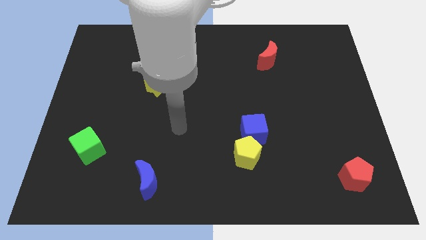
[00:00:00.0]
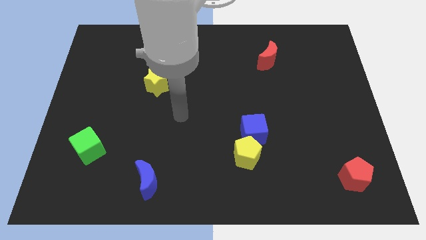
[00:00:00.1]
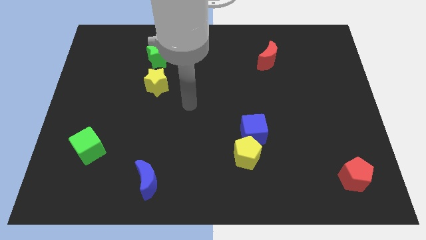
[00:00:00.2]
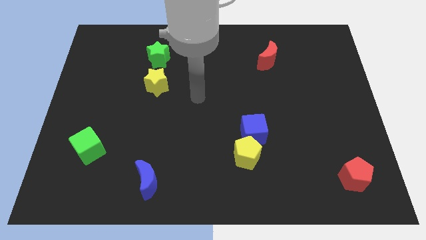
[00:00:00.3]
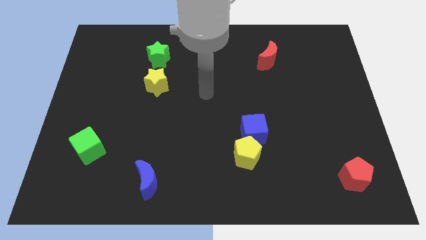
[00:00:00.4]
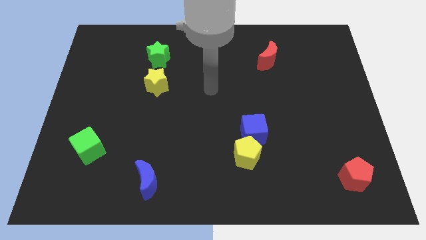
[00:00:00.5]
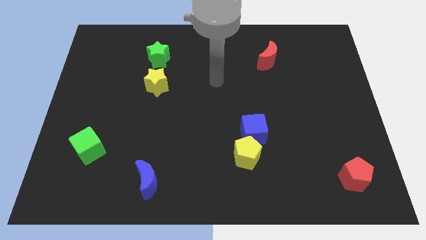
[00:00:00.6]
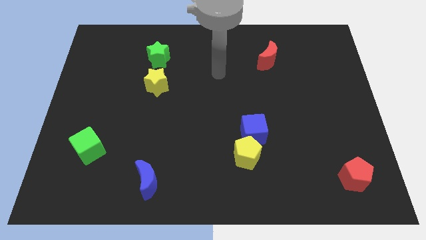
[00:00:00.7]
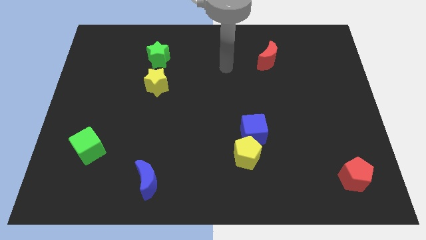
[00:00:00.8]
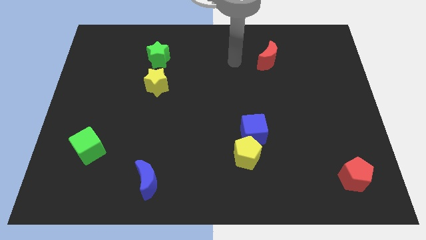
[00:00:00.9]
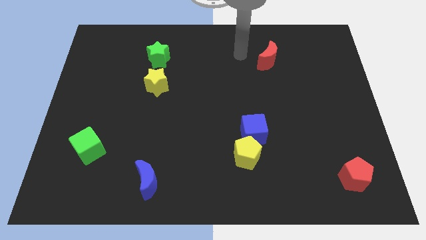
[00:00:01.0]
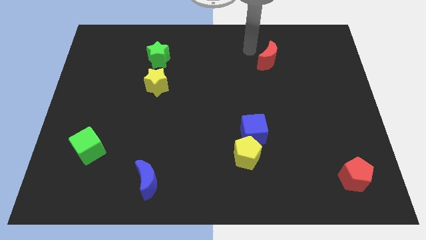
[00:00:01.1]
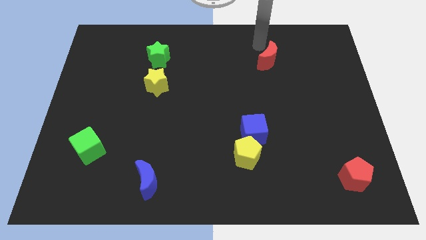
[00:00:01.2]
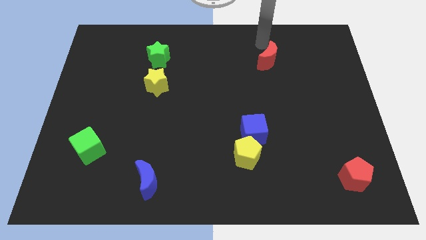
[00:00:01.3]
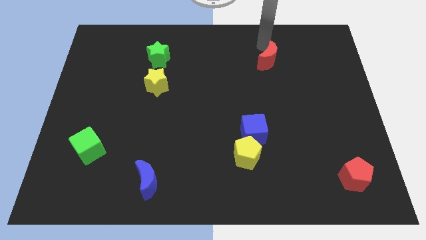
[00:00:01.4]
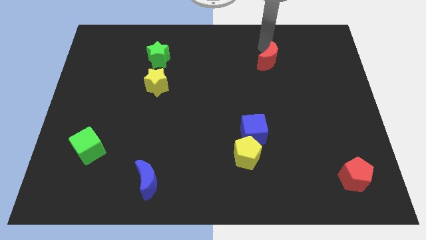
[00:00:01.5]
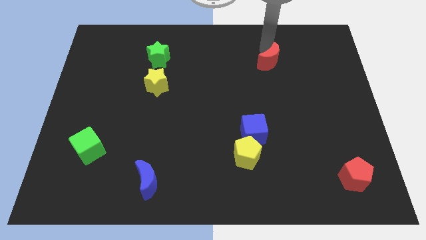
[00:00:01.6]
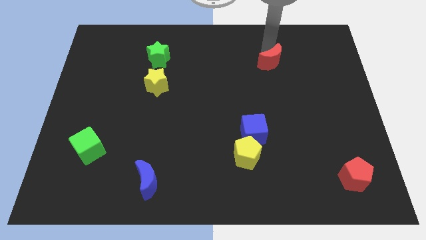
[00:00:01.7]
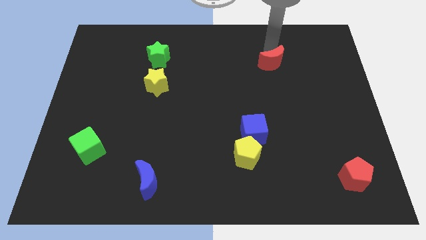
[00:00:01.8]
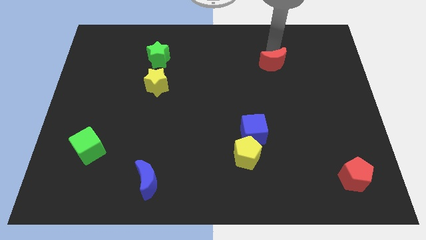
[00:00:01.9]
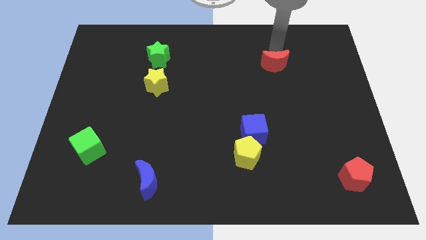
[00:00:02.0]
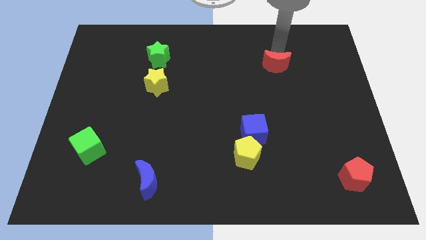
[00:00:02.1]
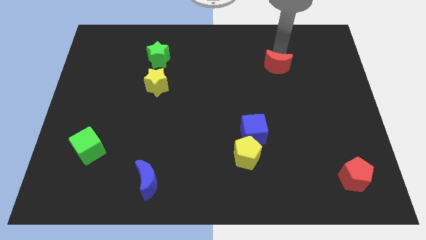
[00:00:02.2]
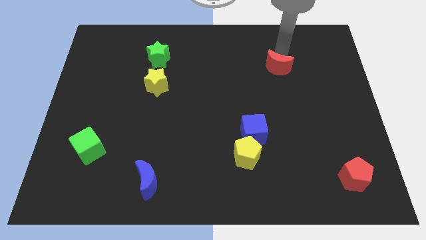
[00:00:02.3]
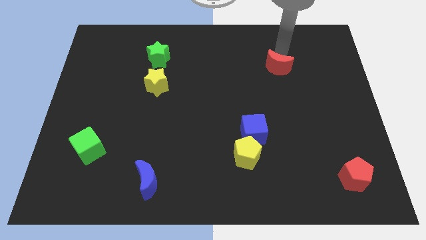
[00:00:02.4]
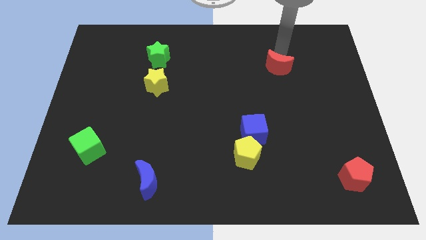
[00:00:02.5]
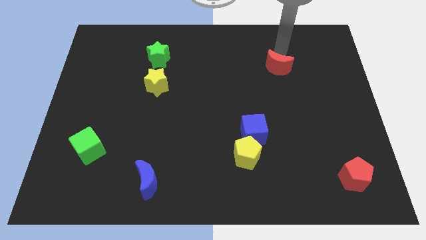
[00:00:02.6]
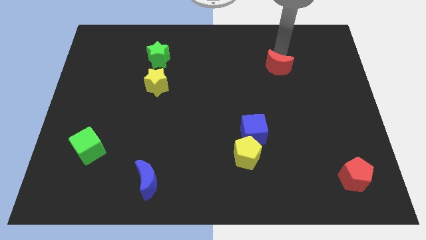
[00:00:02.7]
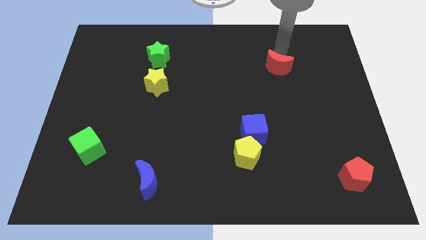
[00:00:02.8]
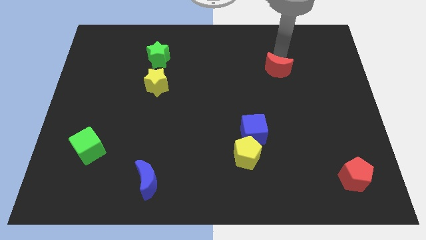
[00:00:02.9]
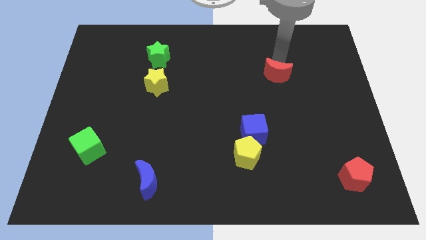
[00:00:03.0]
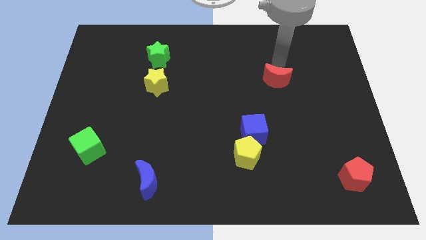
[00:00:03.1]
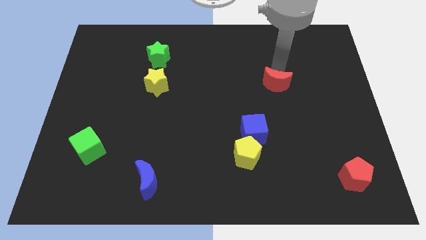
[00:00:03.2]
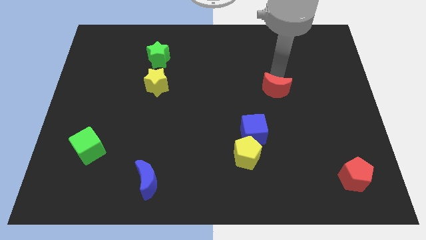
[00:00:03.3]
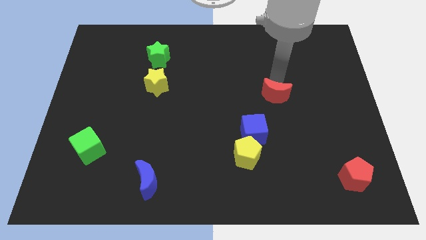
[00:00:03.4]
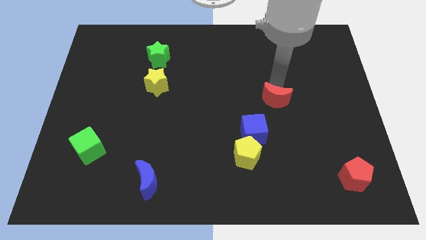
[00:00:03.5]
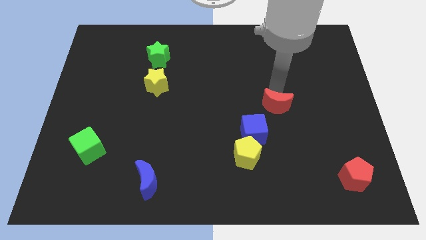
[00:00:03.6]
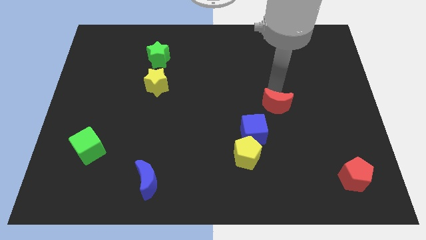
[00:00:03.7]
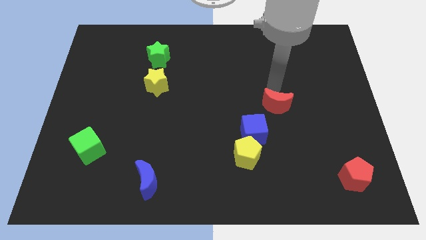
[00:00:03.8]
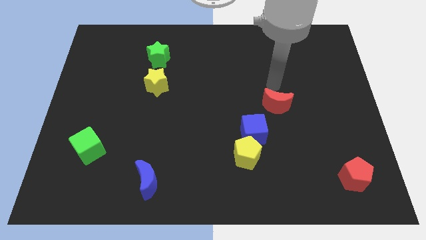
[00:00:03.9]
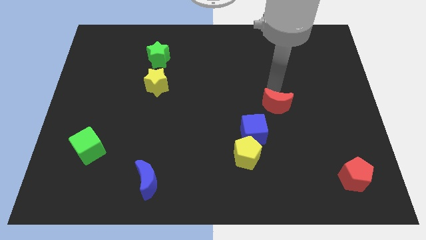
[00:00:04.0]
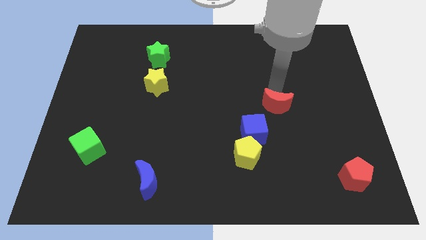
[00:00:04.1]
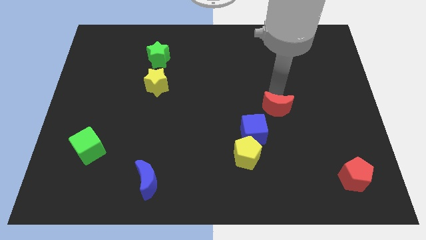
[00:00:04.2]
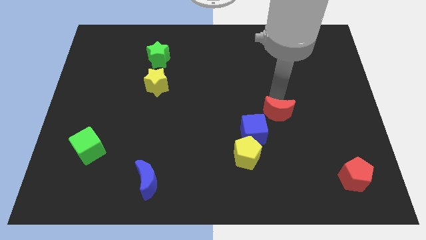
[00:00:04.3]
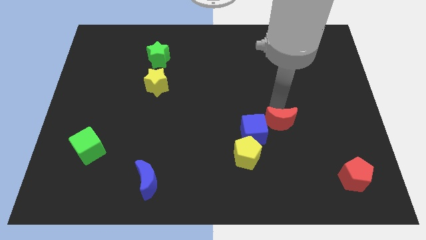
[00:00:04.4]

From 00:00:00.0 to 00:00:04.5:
move the red moon down

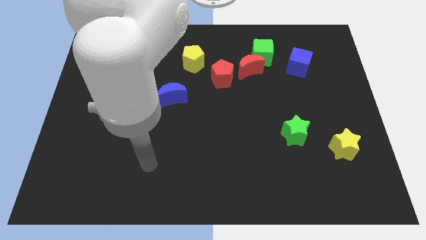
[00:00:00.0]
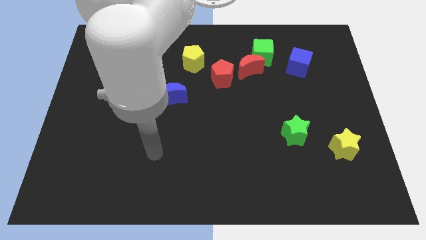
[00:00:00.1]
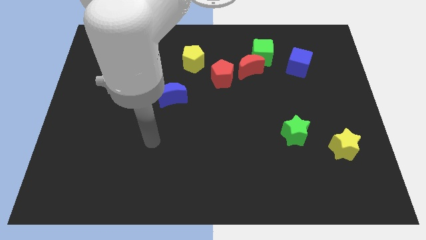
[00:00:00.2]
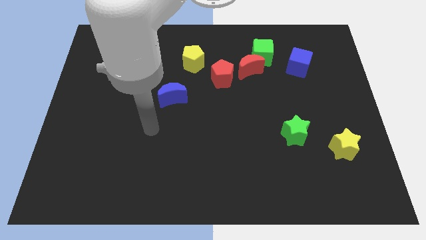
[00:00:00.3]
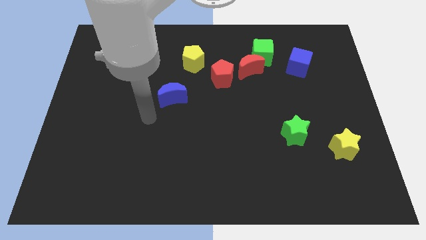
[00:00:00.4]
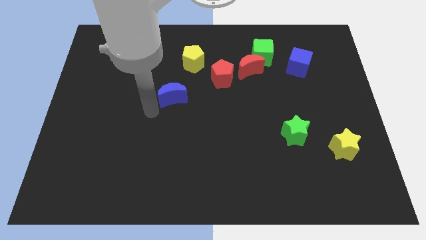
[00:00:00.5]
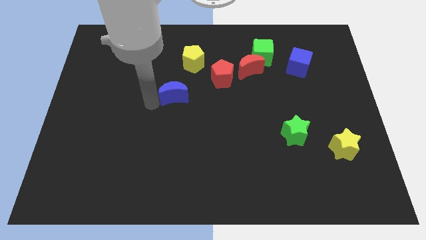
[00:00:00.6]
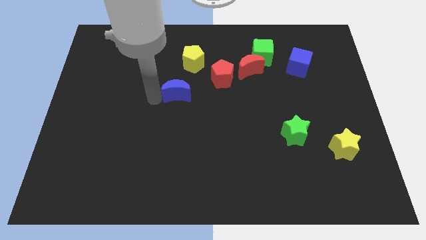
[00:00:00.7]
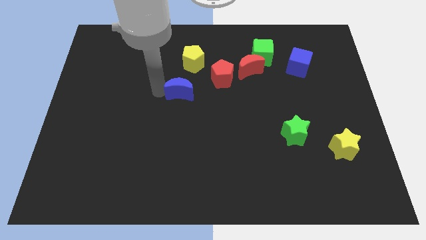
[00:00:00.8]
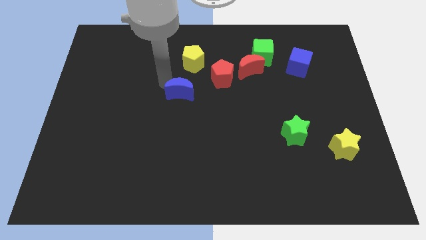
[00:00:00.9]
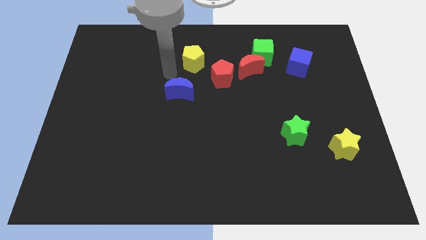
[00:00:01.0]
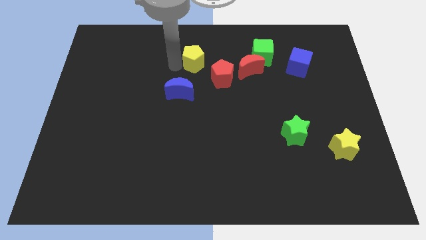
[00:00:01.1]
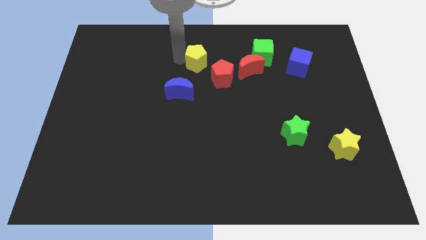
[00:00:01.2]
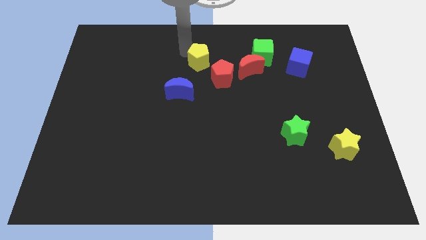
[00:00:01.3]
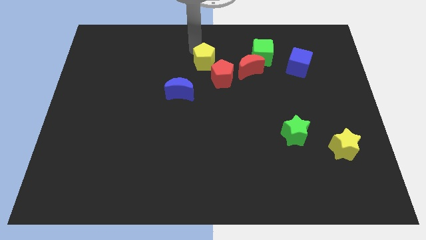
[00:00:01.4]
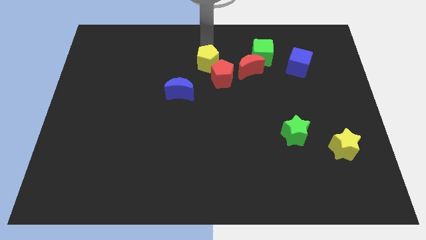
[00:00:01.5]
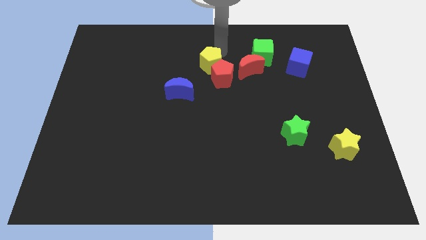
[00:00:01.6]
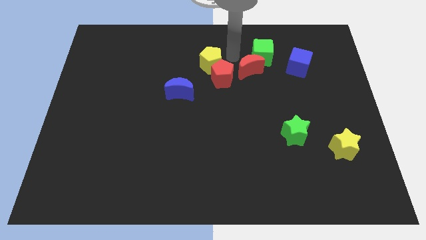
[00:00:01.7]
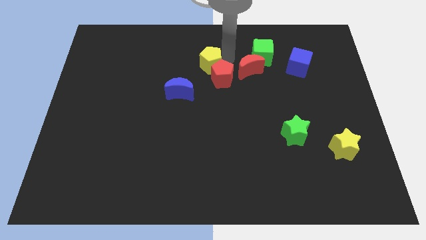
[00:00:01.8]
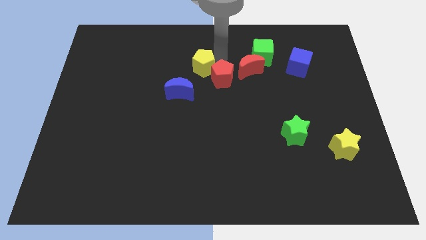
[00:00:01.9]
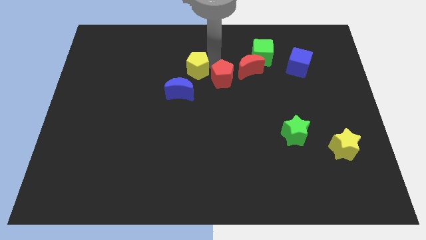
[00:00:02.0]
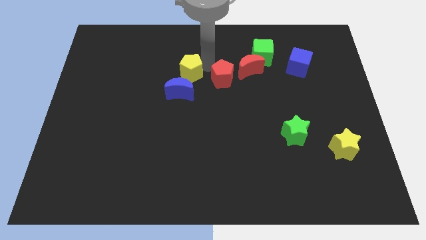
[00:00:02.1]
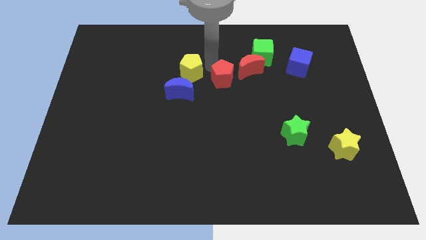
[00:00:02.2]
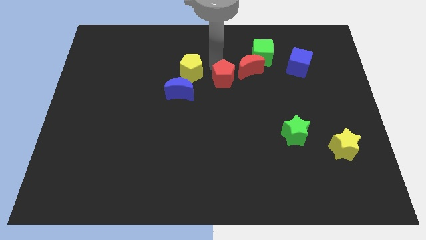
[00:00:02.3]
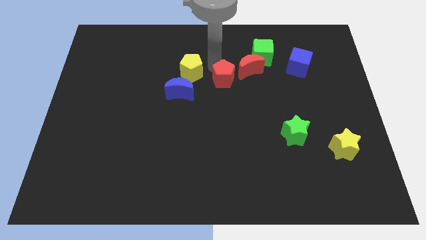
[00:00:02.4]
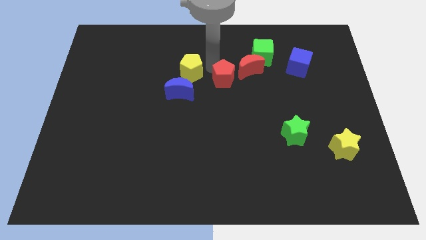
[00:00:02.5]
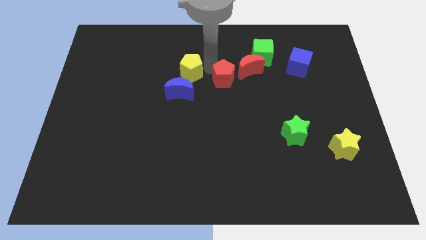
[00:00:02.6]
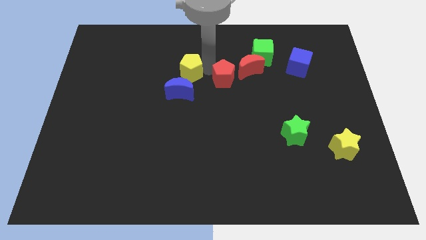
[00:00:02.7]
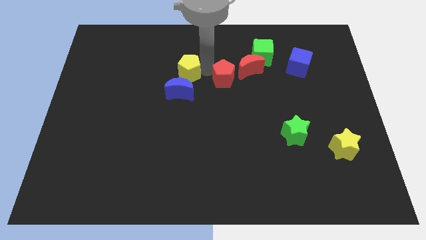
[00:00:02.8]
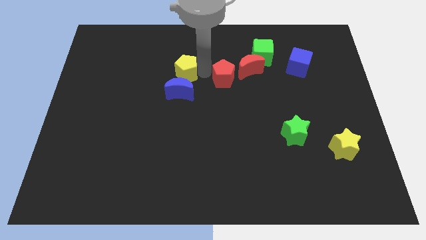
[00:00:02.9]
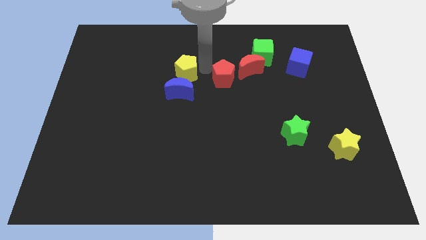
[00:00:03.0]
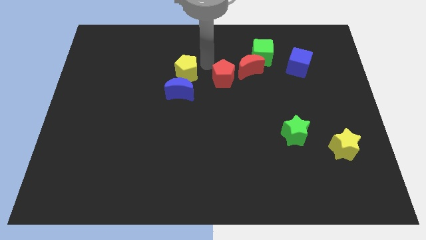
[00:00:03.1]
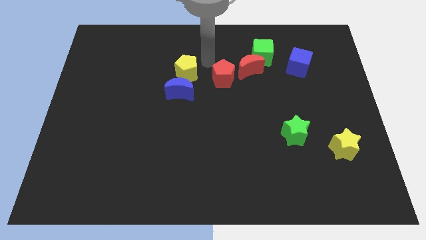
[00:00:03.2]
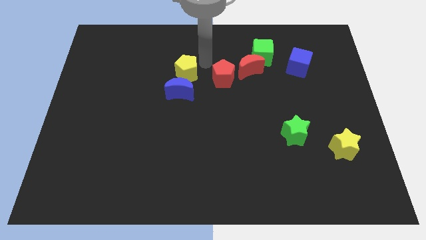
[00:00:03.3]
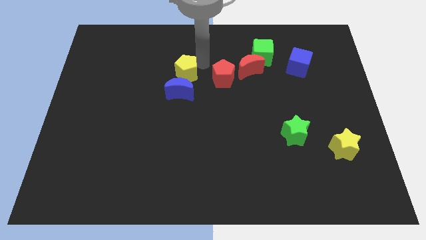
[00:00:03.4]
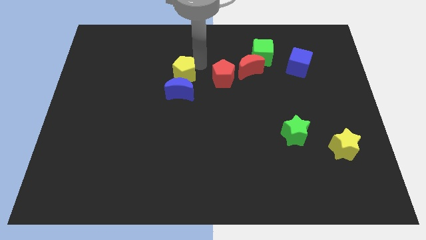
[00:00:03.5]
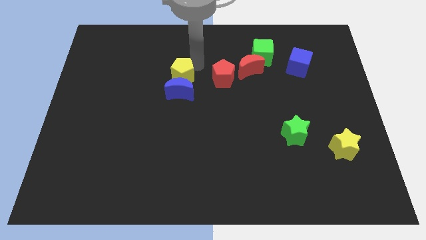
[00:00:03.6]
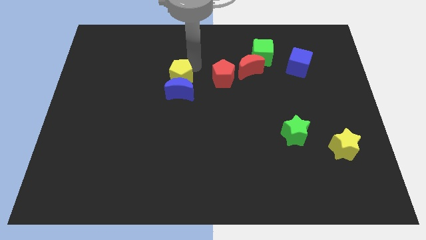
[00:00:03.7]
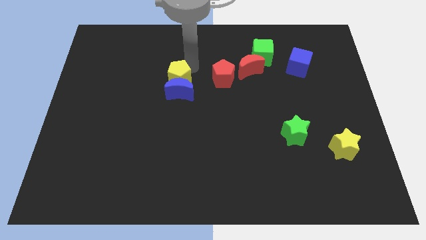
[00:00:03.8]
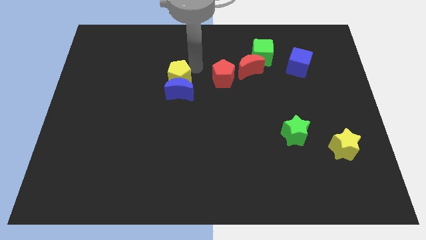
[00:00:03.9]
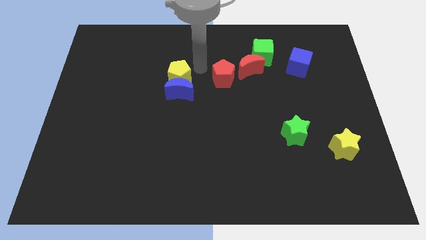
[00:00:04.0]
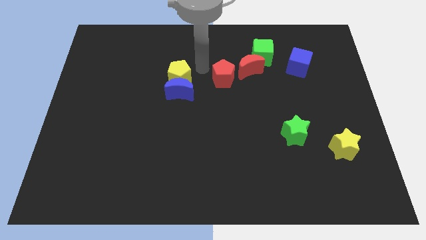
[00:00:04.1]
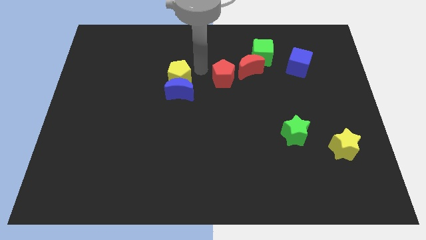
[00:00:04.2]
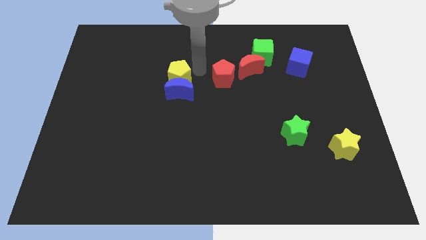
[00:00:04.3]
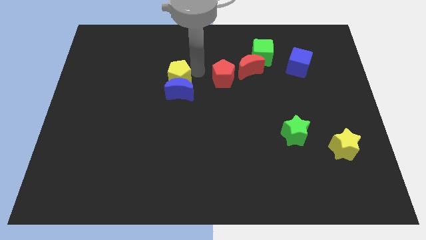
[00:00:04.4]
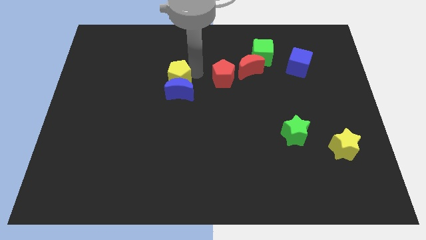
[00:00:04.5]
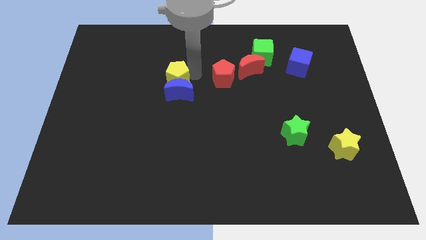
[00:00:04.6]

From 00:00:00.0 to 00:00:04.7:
push the yellow pentagon downwards and then to the left slightly
